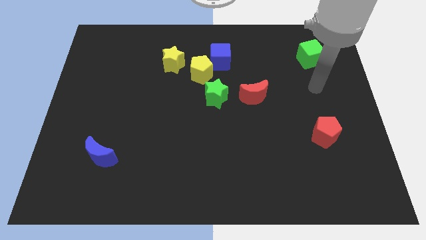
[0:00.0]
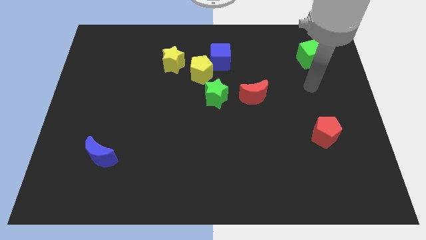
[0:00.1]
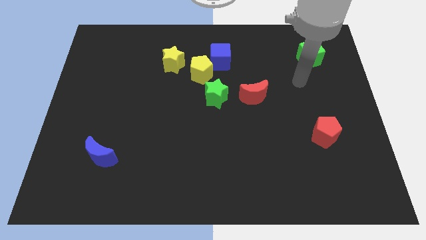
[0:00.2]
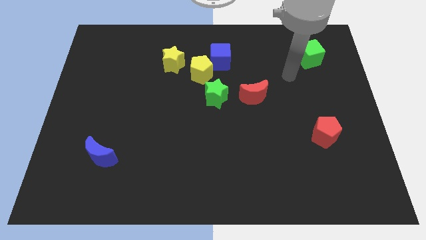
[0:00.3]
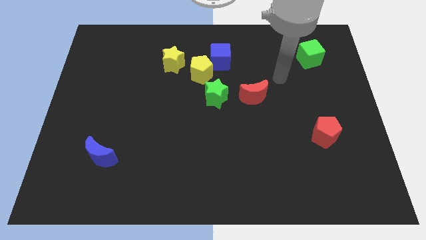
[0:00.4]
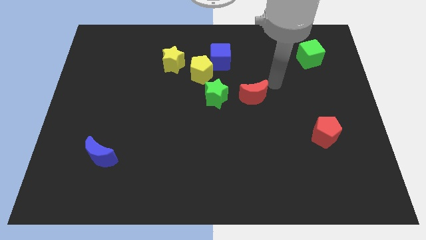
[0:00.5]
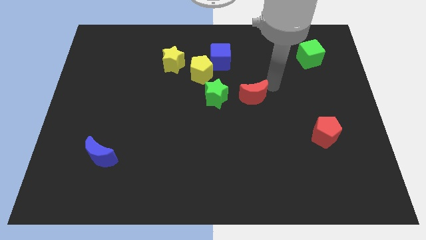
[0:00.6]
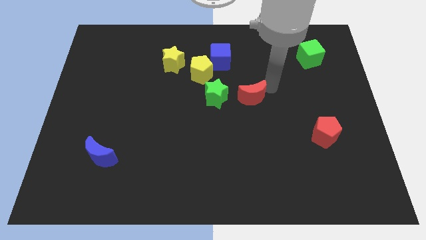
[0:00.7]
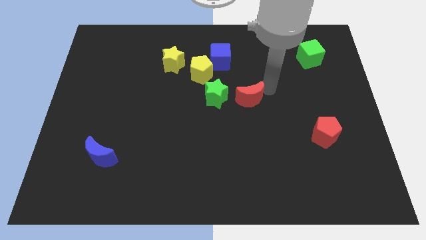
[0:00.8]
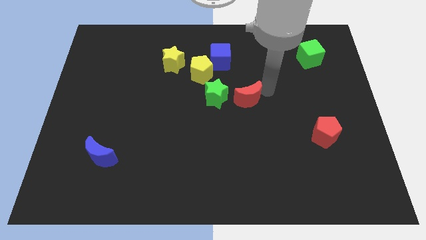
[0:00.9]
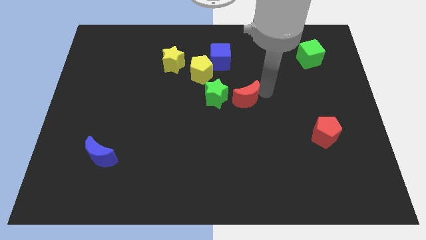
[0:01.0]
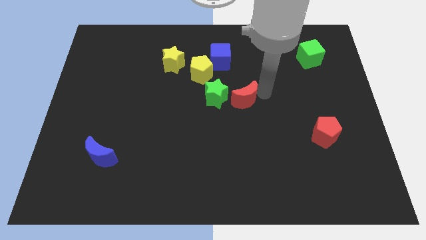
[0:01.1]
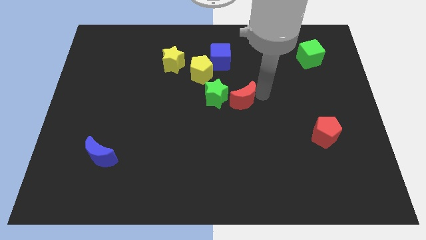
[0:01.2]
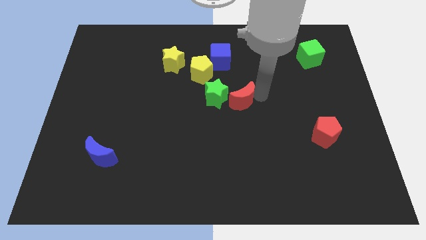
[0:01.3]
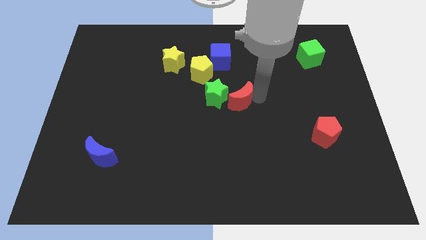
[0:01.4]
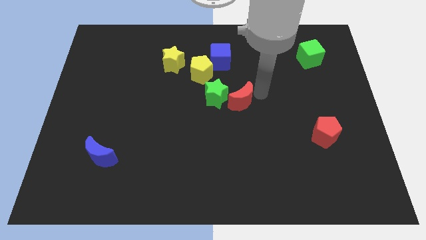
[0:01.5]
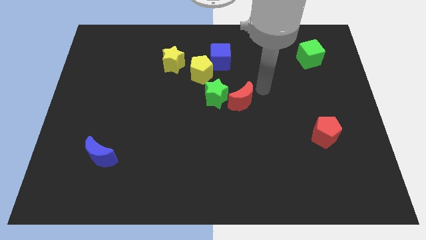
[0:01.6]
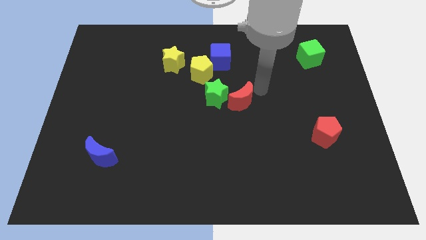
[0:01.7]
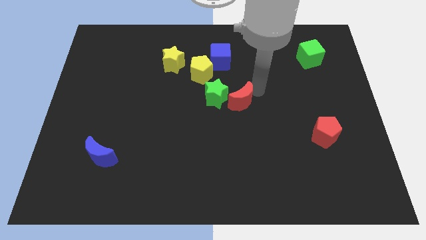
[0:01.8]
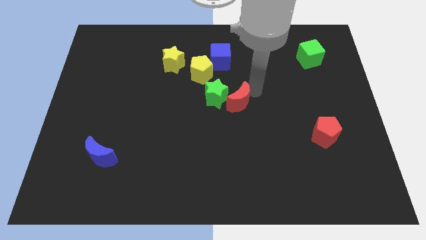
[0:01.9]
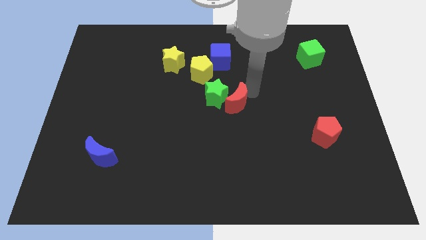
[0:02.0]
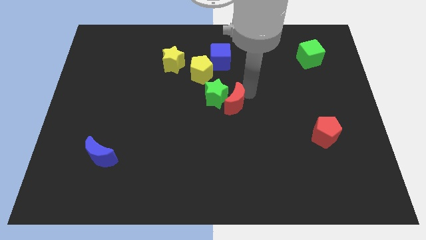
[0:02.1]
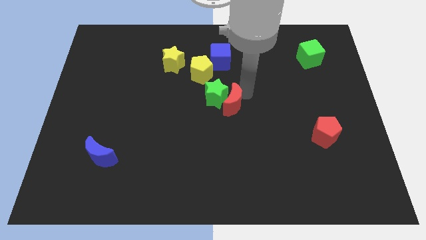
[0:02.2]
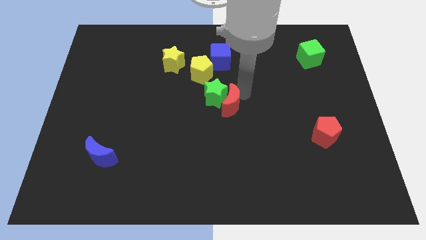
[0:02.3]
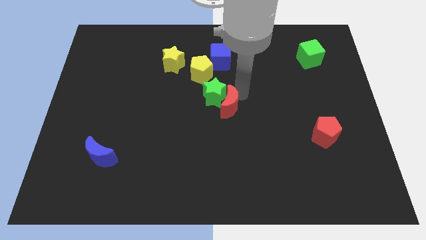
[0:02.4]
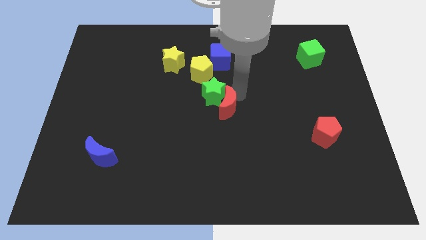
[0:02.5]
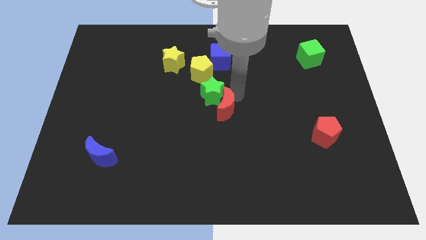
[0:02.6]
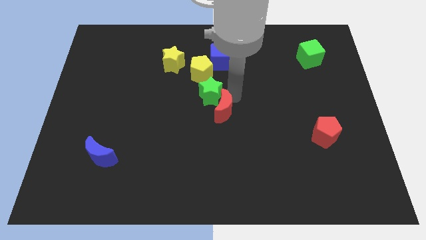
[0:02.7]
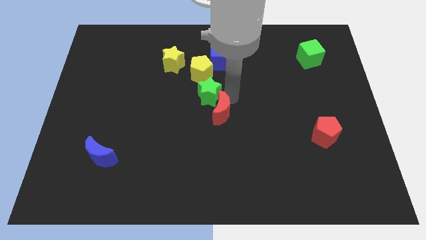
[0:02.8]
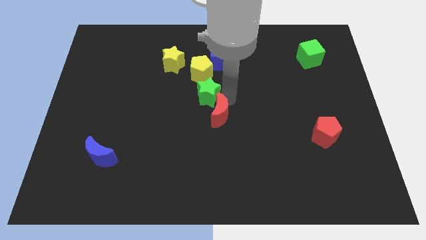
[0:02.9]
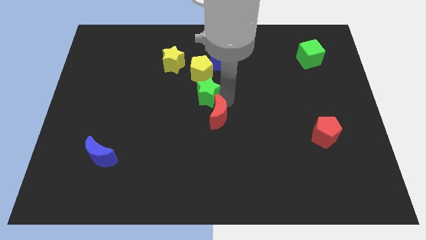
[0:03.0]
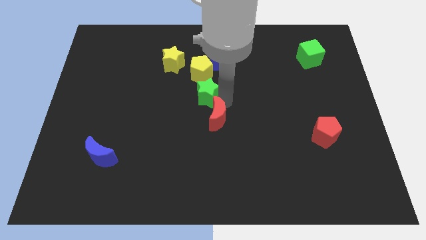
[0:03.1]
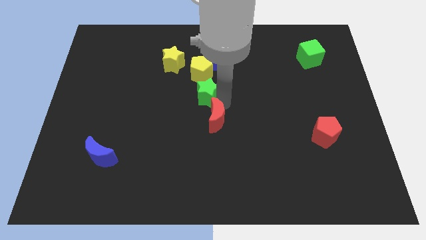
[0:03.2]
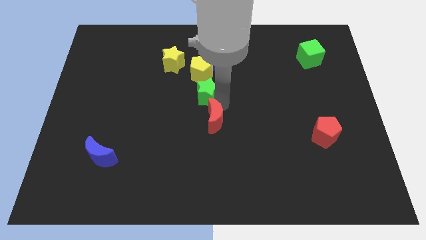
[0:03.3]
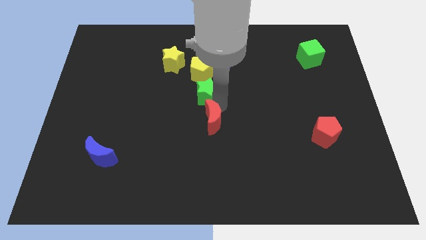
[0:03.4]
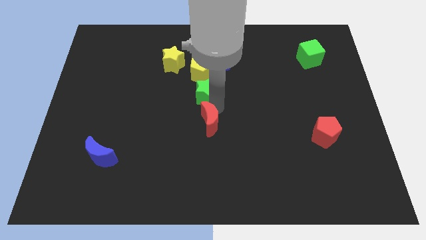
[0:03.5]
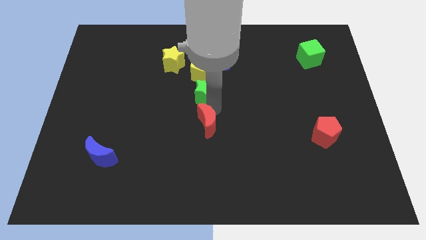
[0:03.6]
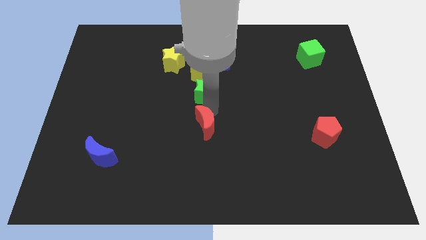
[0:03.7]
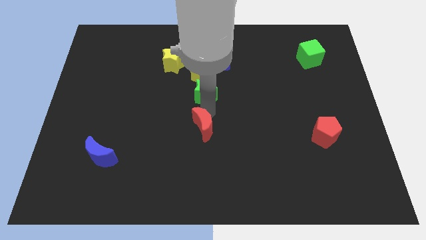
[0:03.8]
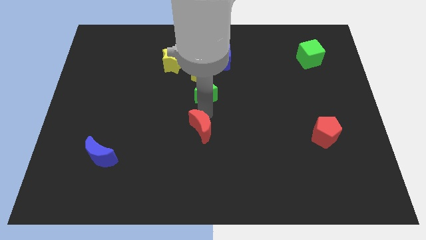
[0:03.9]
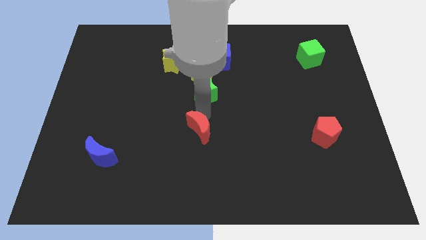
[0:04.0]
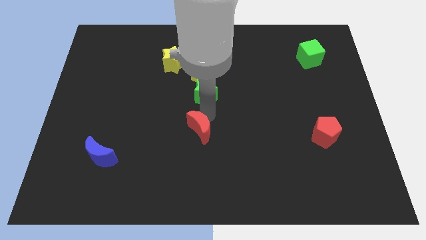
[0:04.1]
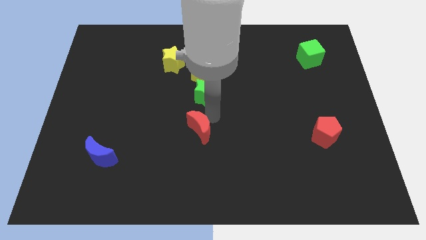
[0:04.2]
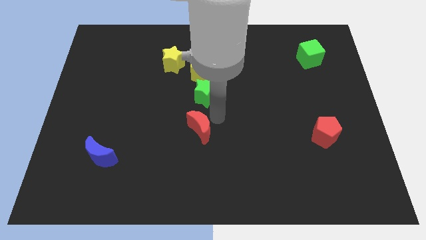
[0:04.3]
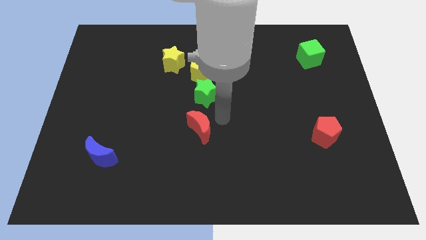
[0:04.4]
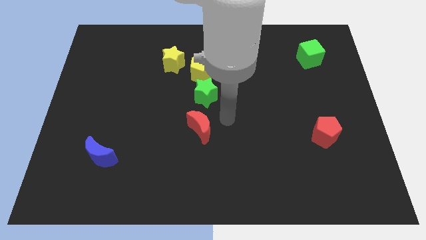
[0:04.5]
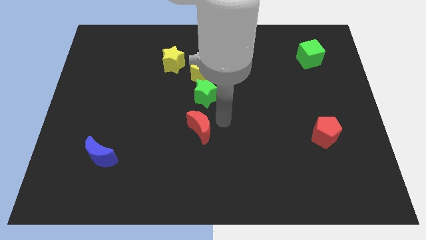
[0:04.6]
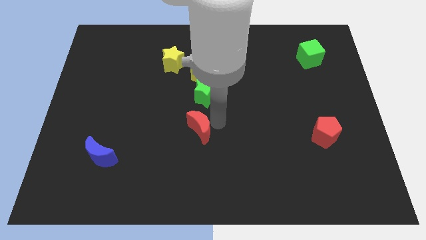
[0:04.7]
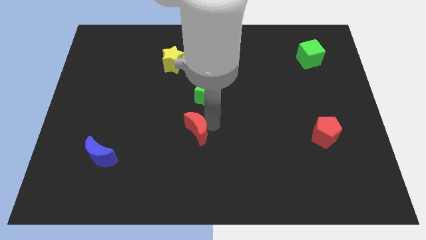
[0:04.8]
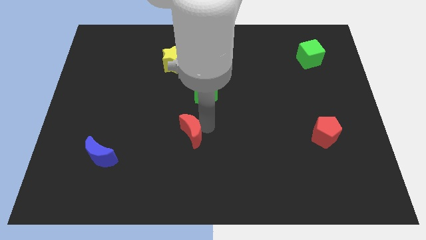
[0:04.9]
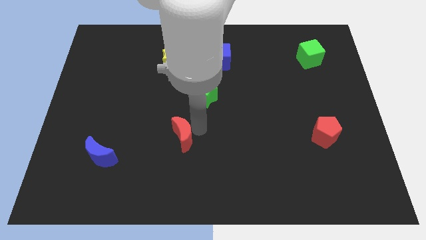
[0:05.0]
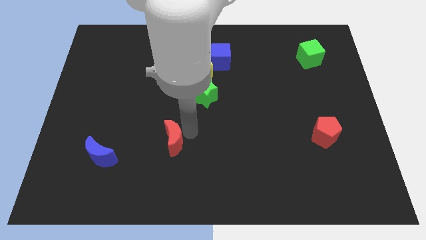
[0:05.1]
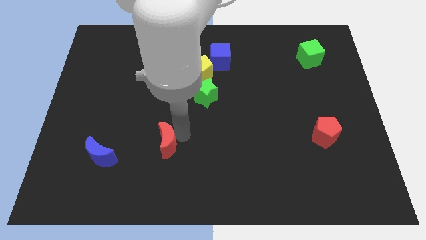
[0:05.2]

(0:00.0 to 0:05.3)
move the red moon right of the blue moon

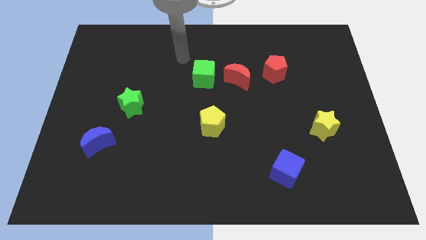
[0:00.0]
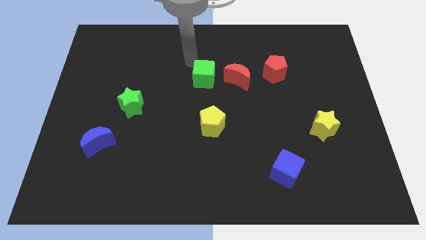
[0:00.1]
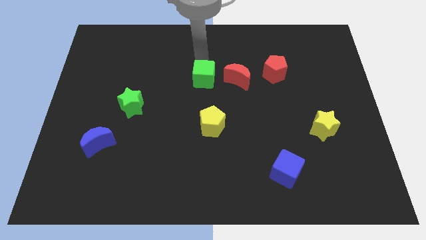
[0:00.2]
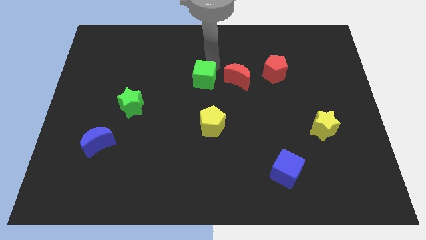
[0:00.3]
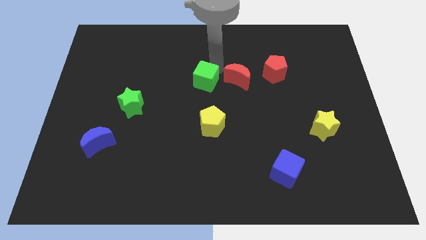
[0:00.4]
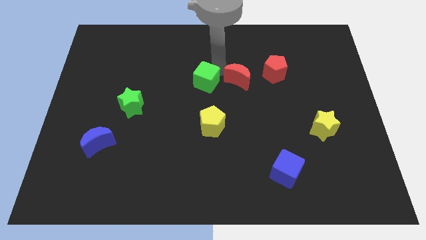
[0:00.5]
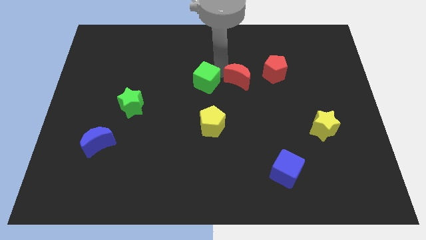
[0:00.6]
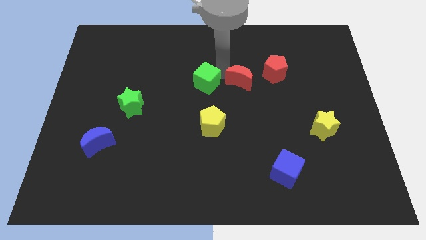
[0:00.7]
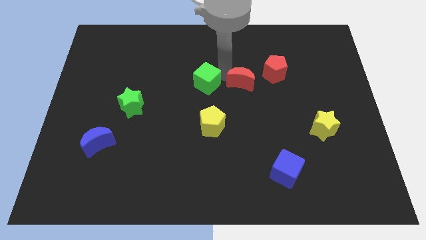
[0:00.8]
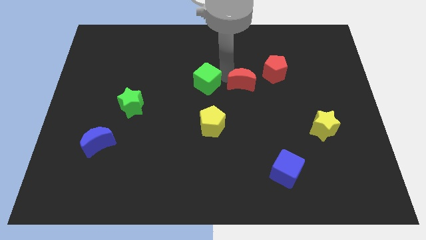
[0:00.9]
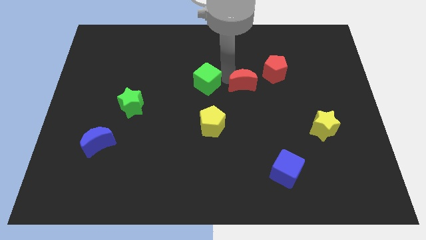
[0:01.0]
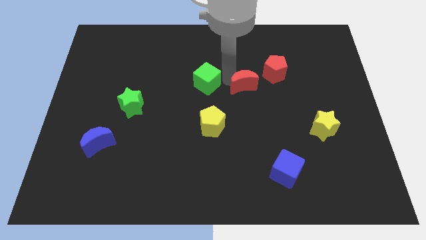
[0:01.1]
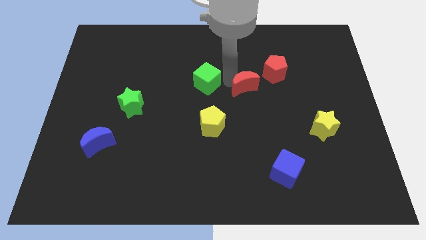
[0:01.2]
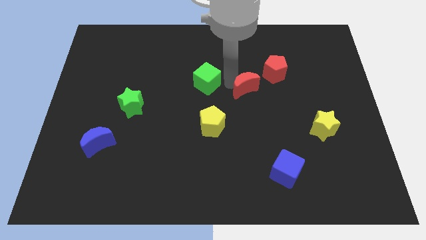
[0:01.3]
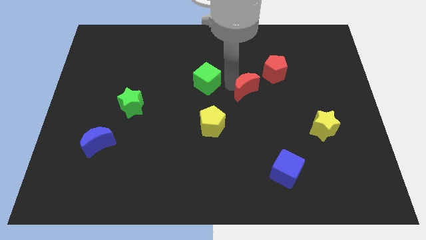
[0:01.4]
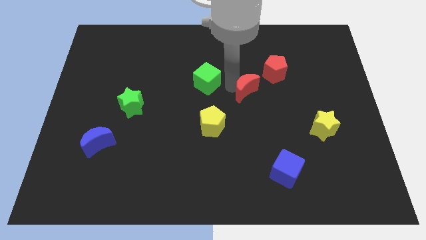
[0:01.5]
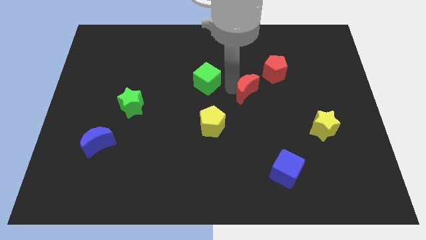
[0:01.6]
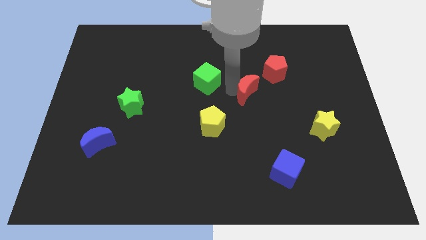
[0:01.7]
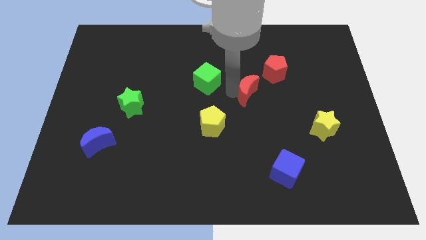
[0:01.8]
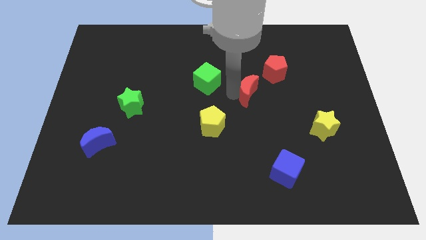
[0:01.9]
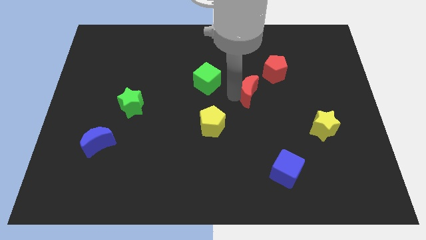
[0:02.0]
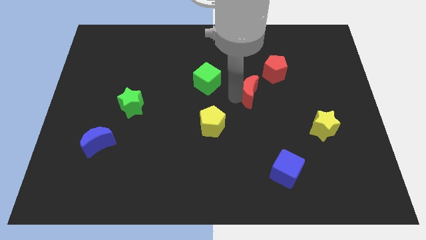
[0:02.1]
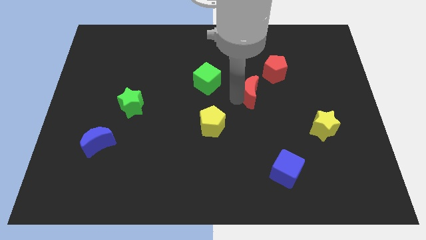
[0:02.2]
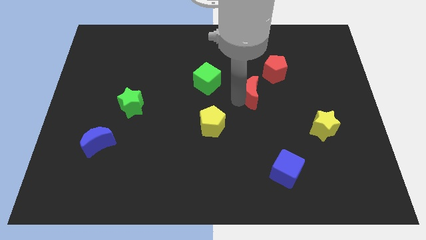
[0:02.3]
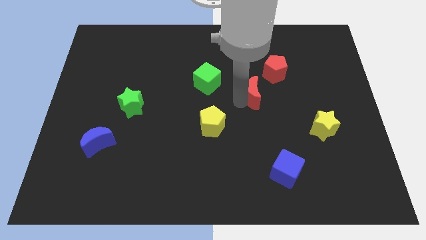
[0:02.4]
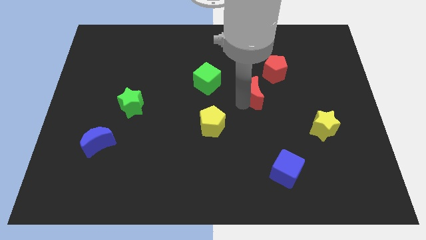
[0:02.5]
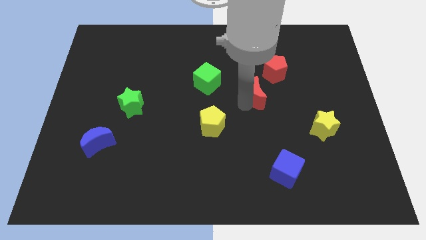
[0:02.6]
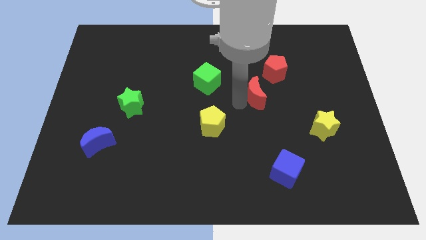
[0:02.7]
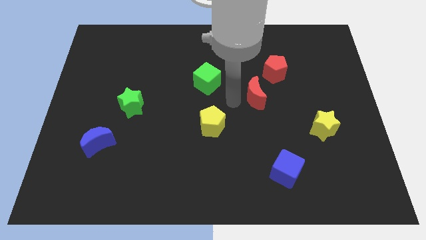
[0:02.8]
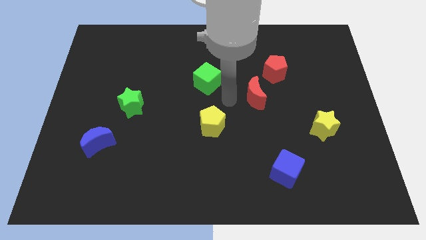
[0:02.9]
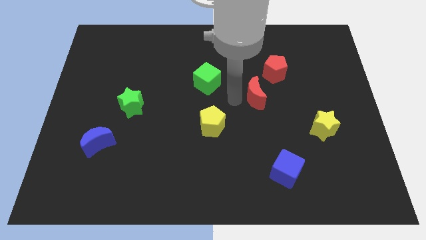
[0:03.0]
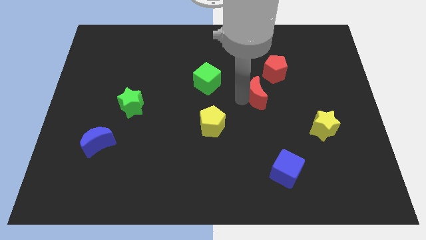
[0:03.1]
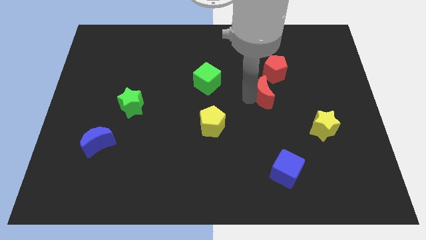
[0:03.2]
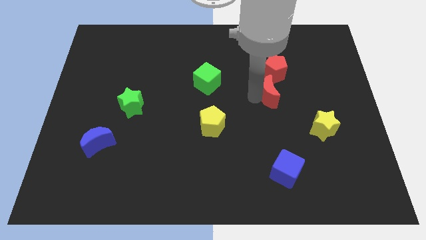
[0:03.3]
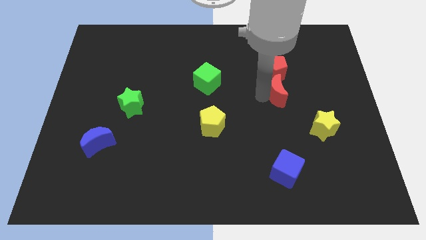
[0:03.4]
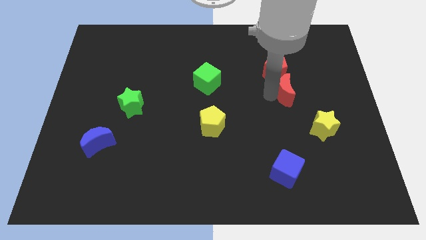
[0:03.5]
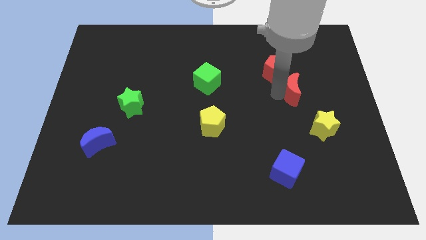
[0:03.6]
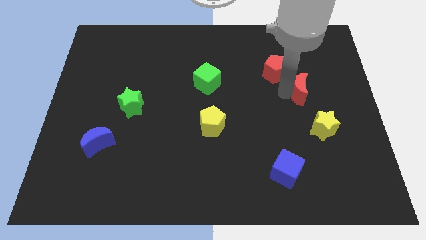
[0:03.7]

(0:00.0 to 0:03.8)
push the red moon to the top of the yellow star
